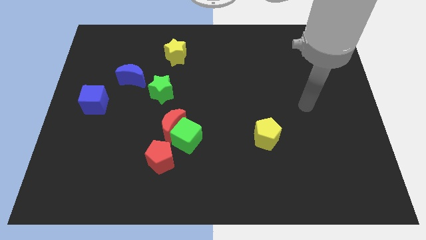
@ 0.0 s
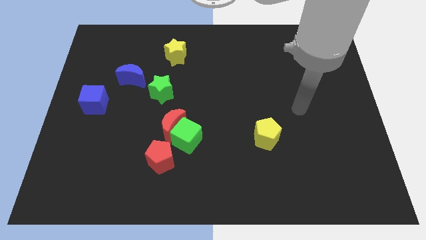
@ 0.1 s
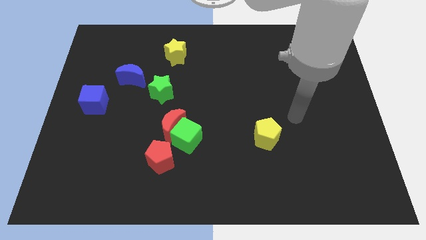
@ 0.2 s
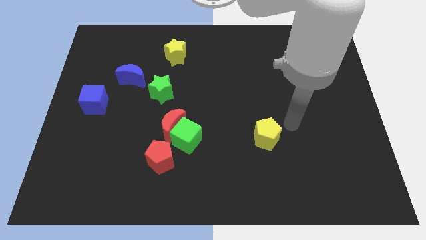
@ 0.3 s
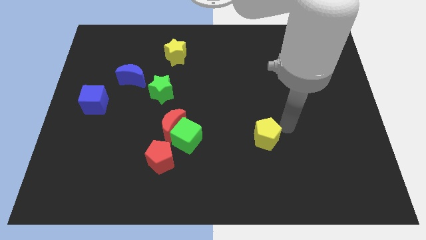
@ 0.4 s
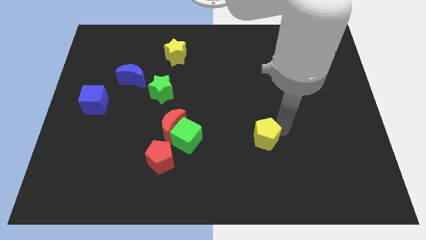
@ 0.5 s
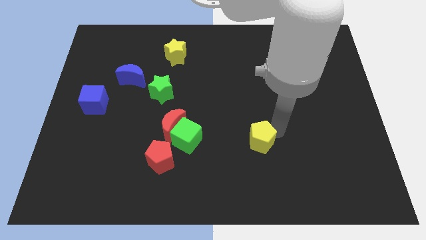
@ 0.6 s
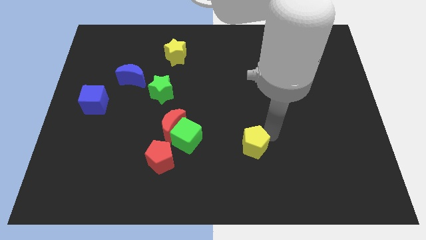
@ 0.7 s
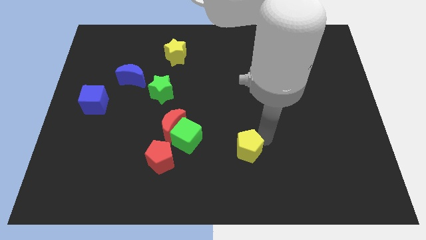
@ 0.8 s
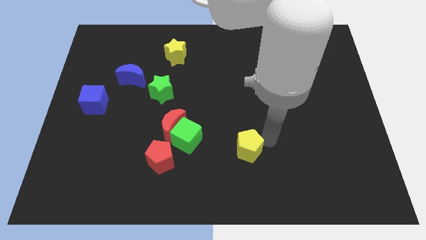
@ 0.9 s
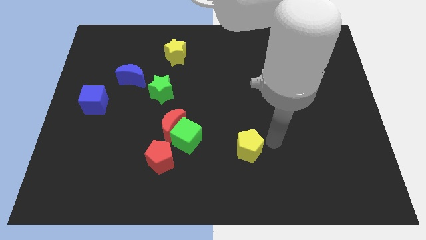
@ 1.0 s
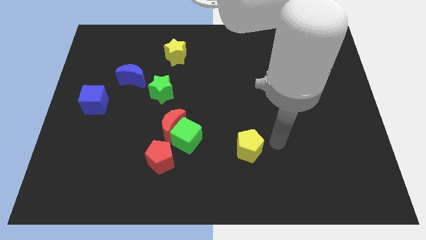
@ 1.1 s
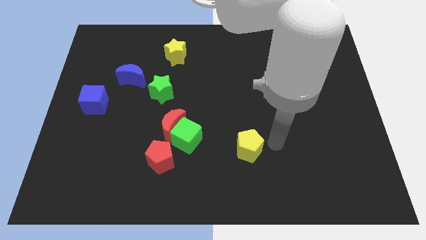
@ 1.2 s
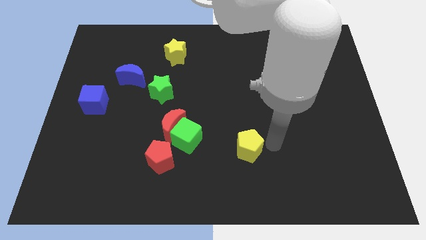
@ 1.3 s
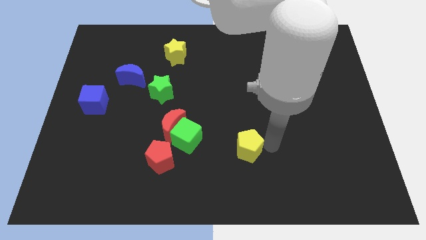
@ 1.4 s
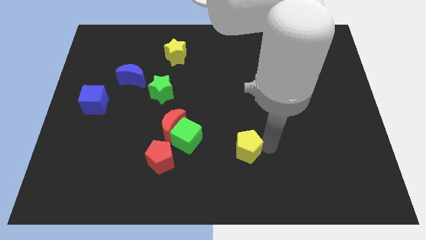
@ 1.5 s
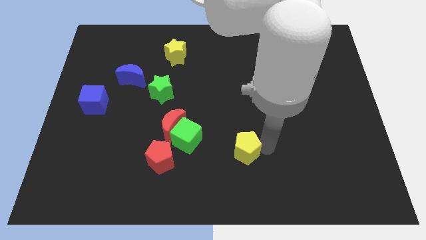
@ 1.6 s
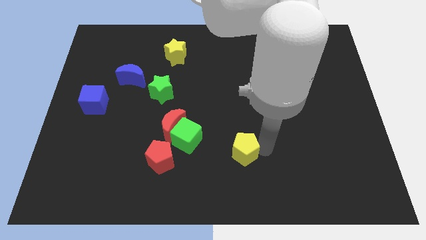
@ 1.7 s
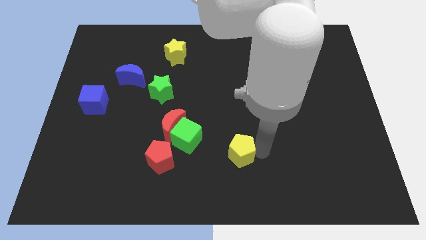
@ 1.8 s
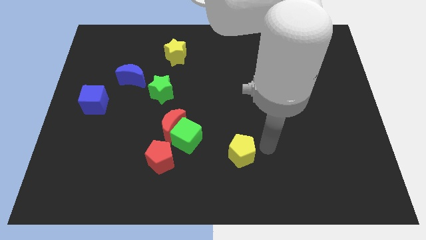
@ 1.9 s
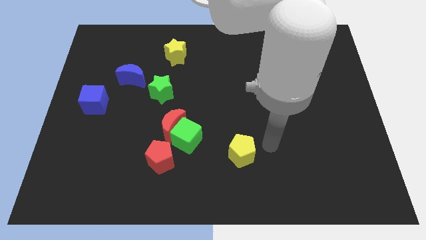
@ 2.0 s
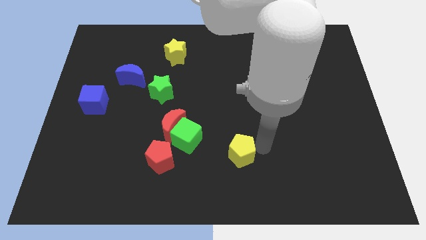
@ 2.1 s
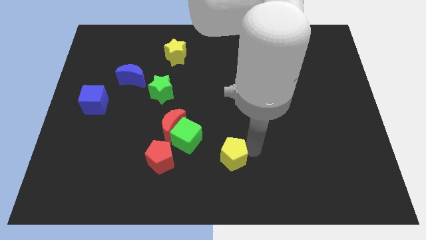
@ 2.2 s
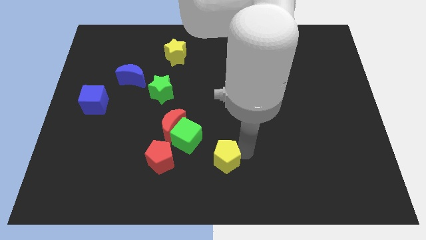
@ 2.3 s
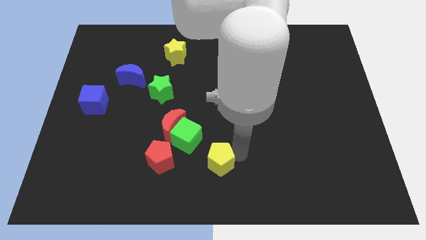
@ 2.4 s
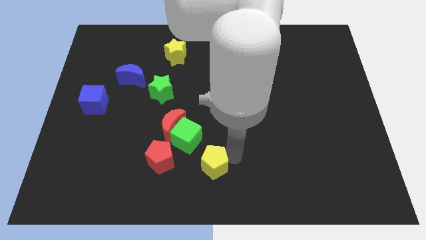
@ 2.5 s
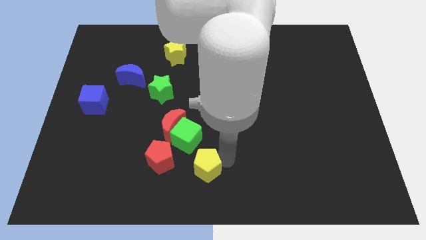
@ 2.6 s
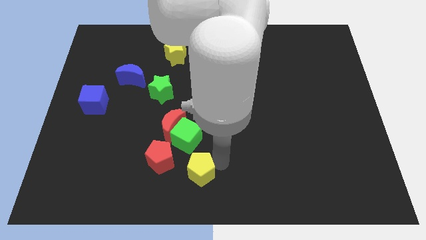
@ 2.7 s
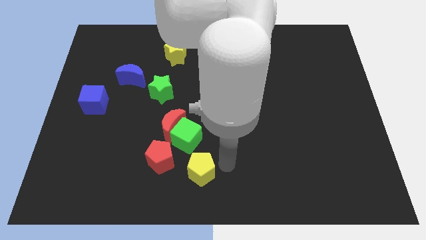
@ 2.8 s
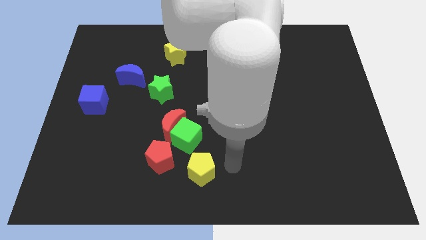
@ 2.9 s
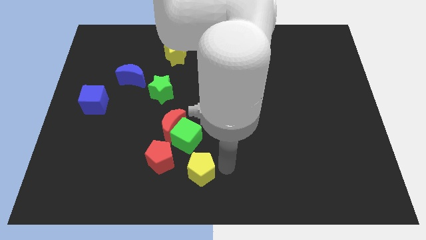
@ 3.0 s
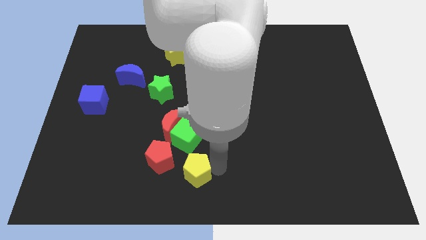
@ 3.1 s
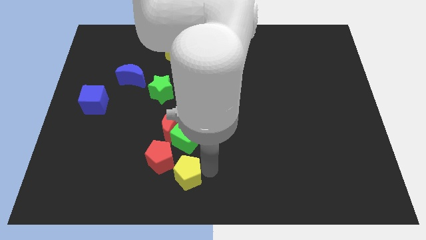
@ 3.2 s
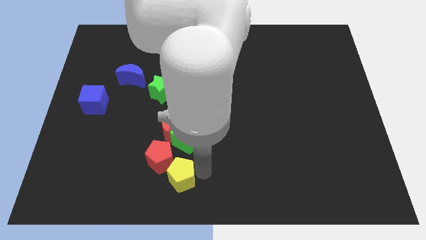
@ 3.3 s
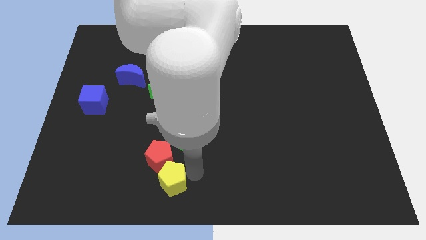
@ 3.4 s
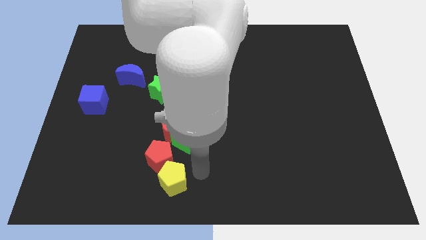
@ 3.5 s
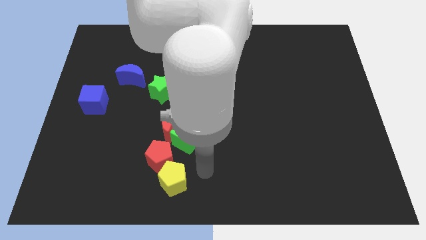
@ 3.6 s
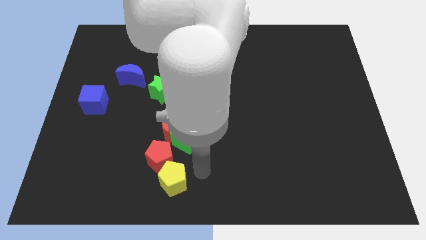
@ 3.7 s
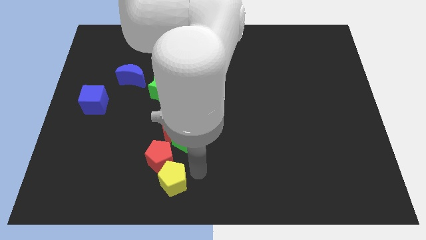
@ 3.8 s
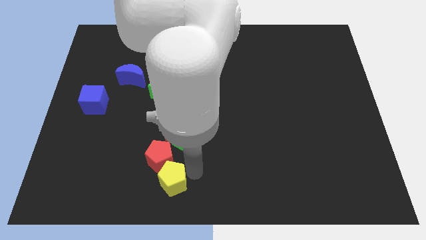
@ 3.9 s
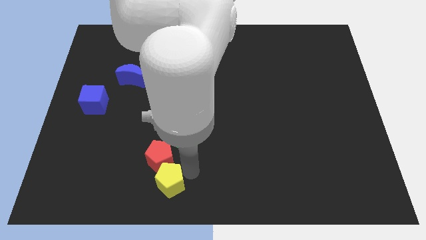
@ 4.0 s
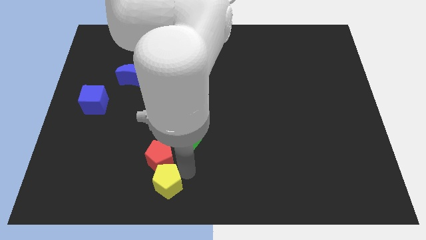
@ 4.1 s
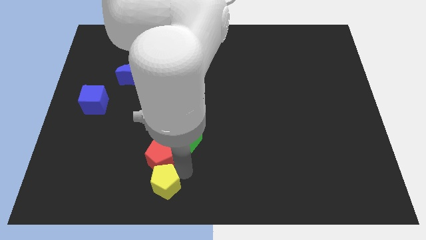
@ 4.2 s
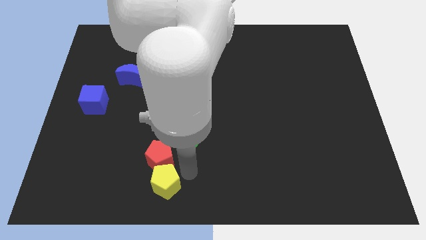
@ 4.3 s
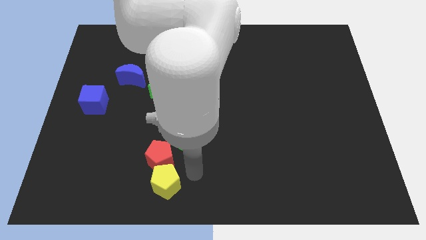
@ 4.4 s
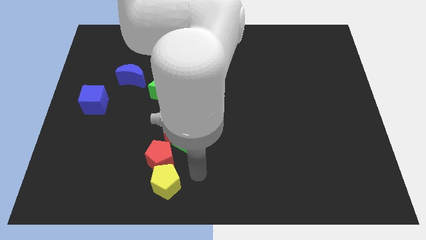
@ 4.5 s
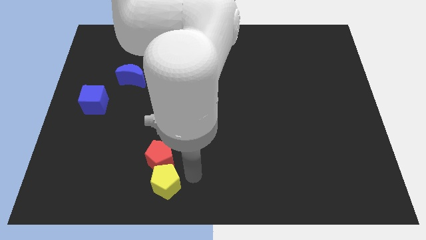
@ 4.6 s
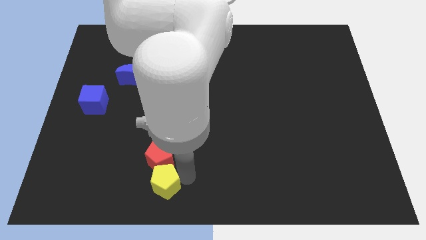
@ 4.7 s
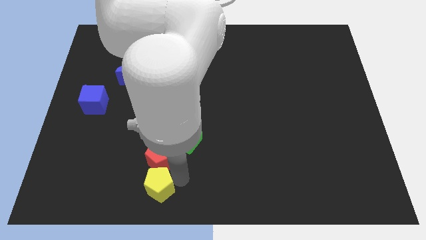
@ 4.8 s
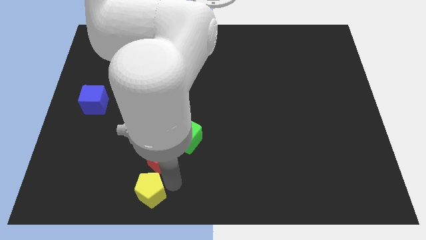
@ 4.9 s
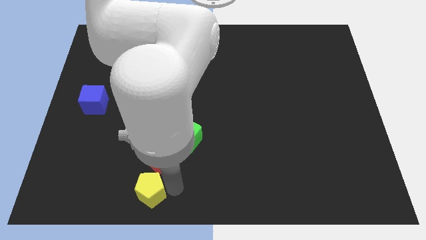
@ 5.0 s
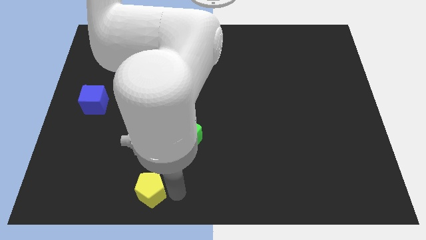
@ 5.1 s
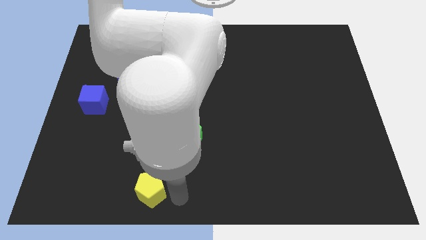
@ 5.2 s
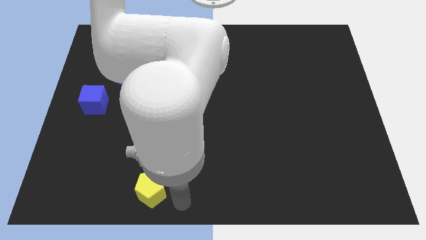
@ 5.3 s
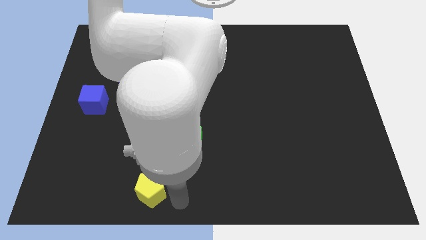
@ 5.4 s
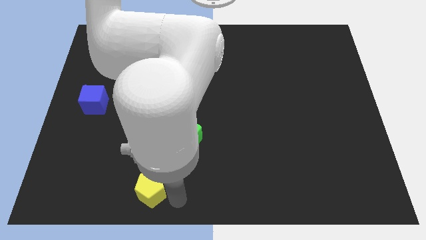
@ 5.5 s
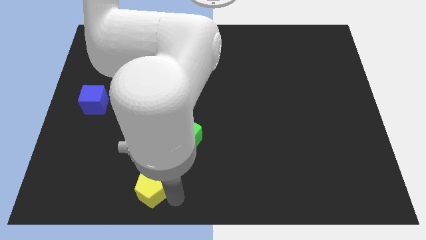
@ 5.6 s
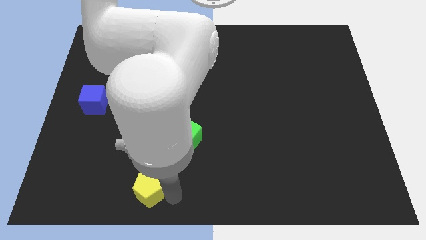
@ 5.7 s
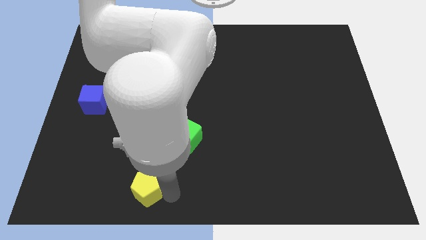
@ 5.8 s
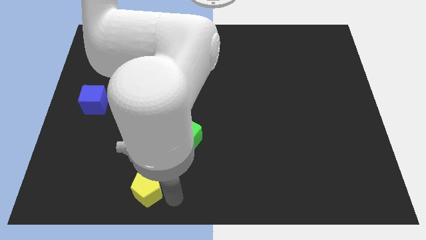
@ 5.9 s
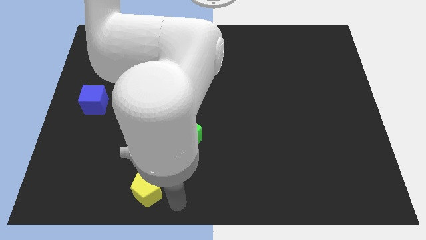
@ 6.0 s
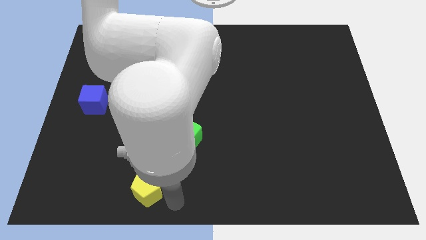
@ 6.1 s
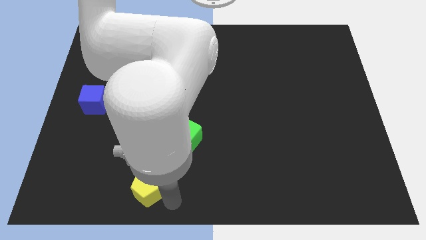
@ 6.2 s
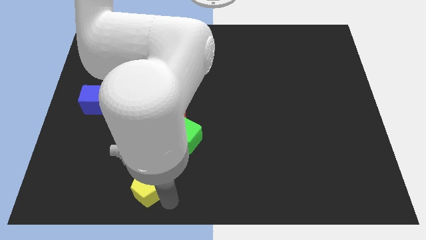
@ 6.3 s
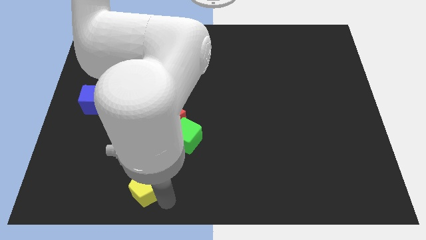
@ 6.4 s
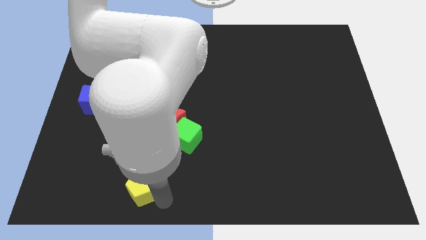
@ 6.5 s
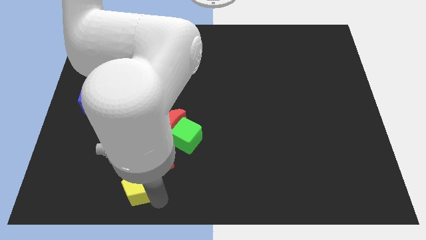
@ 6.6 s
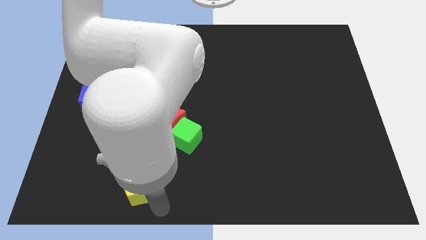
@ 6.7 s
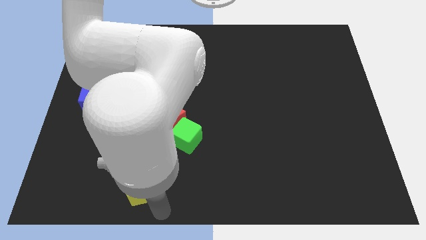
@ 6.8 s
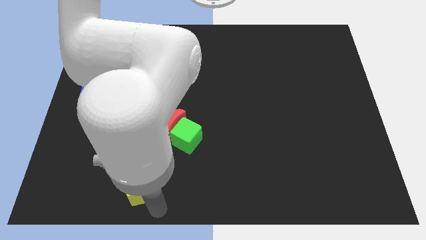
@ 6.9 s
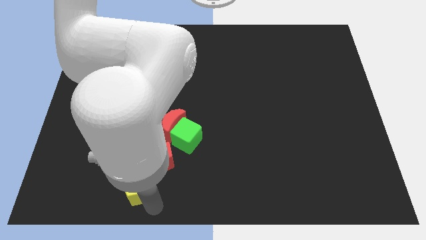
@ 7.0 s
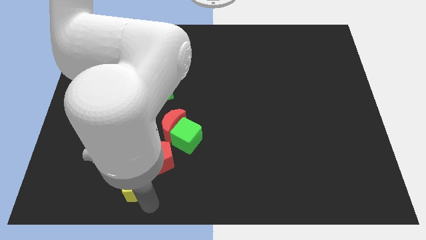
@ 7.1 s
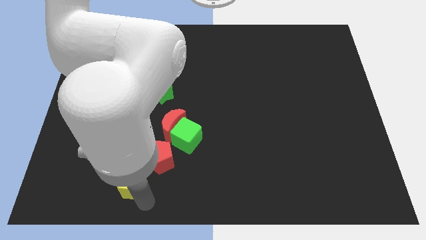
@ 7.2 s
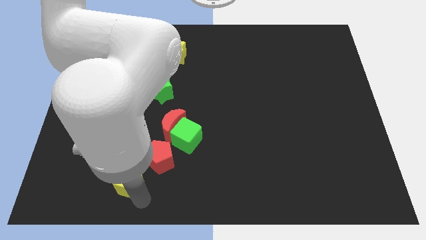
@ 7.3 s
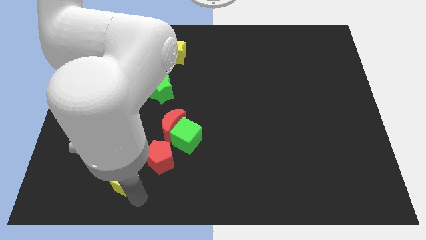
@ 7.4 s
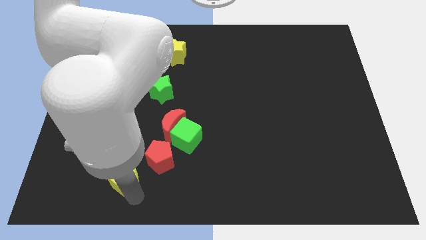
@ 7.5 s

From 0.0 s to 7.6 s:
slide the yellow pentagon to the left side of the red pentagon
